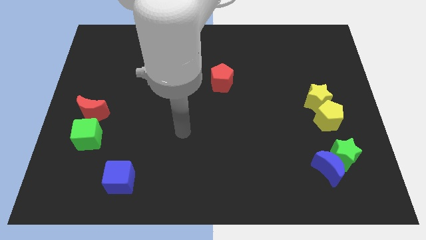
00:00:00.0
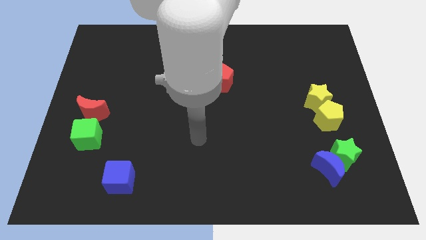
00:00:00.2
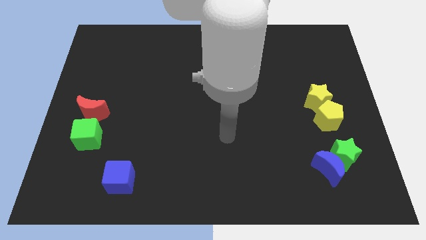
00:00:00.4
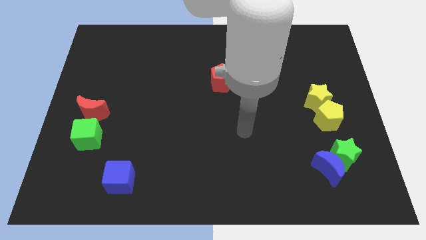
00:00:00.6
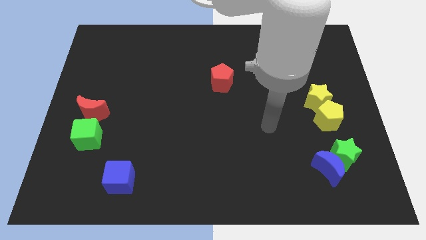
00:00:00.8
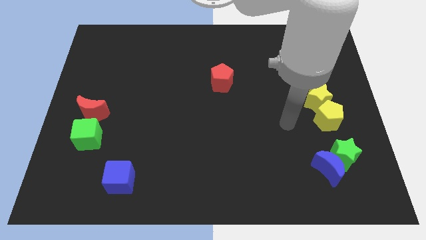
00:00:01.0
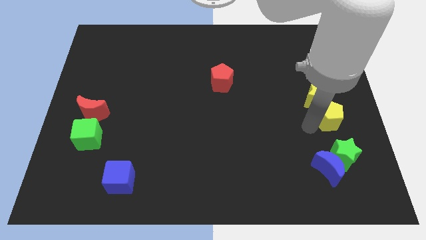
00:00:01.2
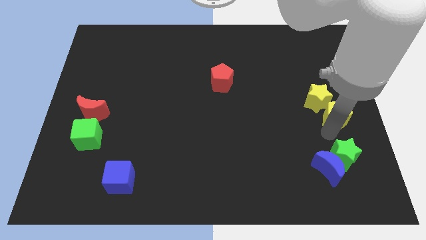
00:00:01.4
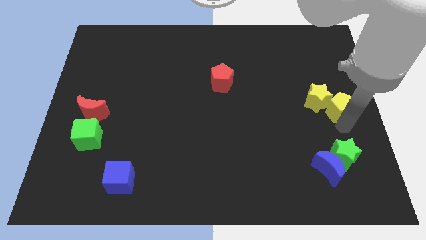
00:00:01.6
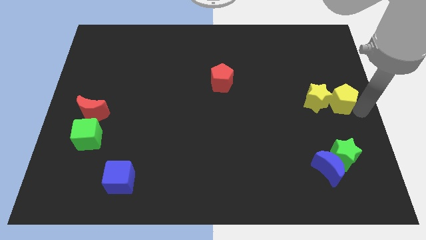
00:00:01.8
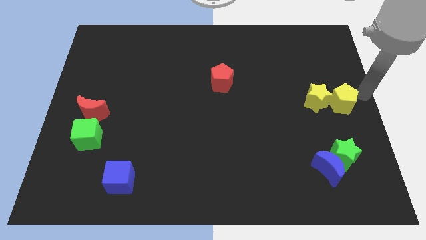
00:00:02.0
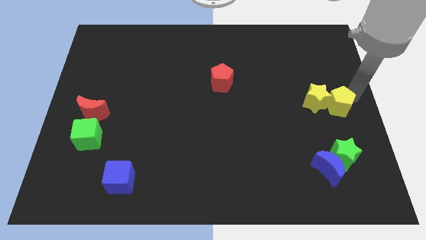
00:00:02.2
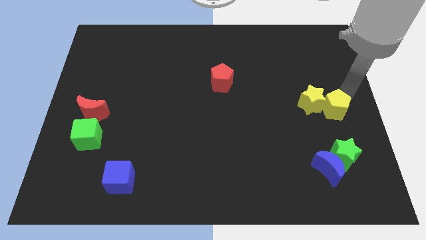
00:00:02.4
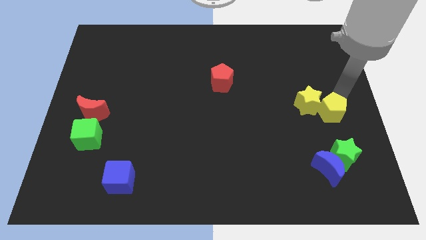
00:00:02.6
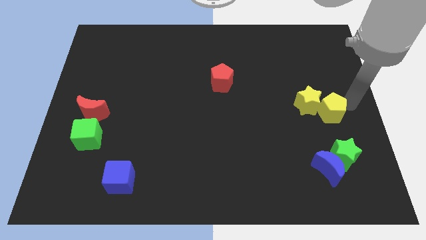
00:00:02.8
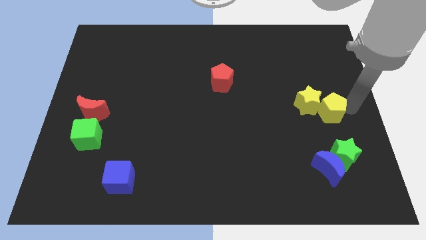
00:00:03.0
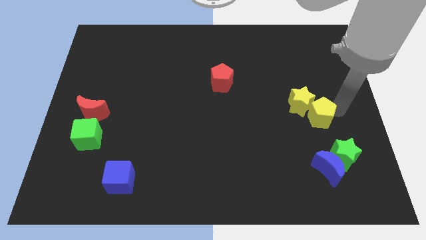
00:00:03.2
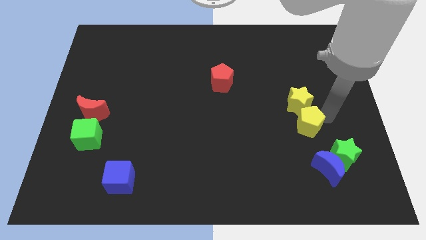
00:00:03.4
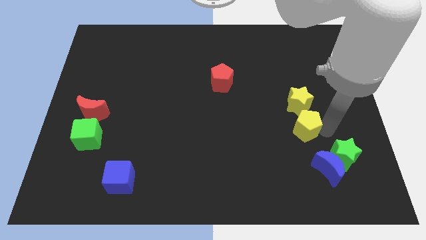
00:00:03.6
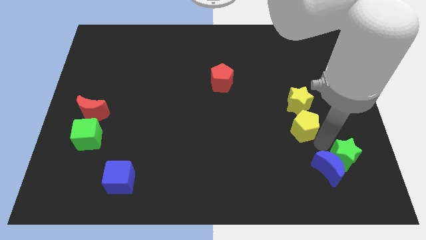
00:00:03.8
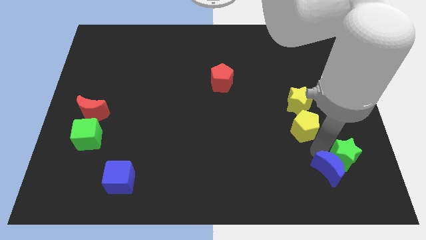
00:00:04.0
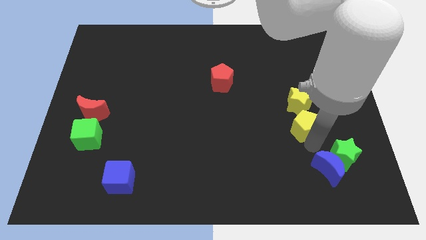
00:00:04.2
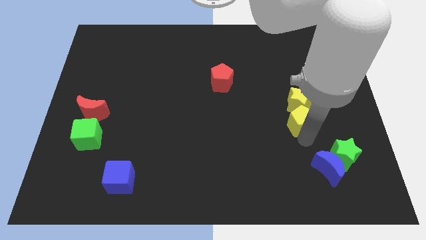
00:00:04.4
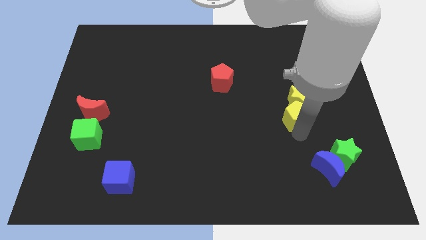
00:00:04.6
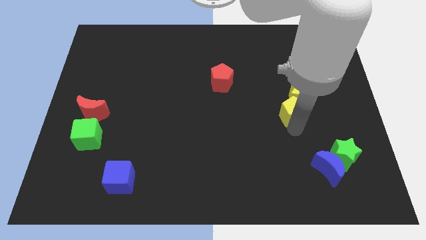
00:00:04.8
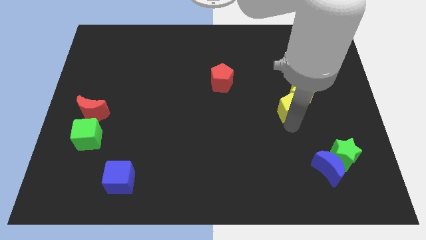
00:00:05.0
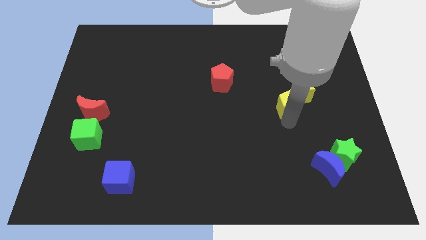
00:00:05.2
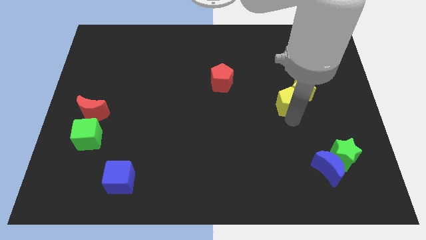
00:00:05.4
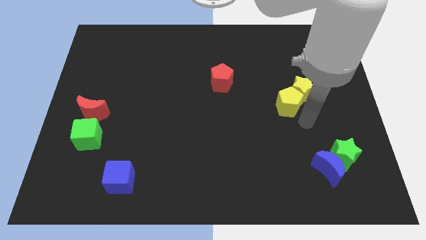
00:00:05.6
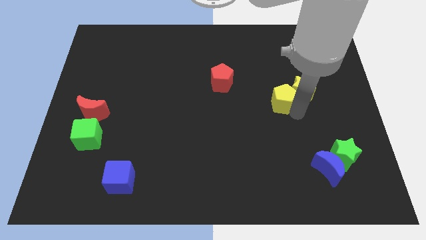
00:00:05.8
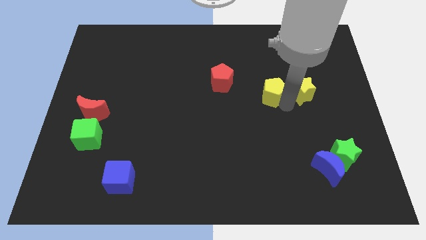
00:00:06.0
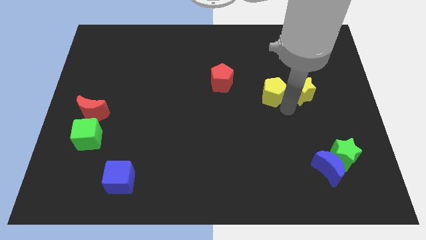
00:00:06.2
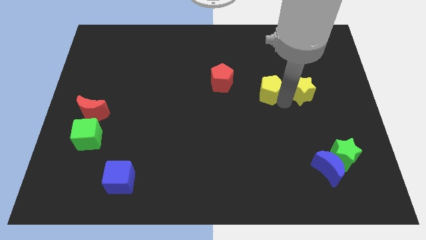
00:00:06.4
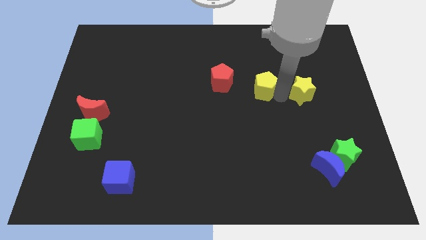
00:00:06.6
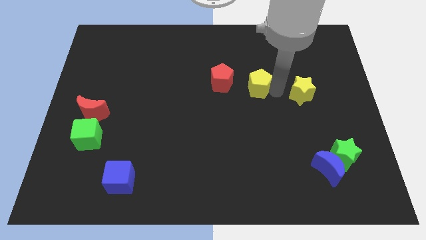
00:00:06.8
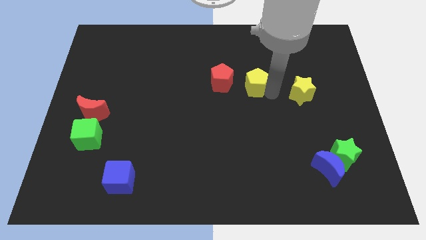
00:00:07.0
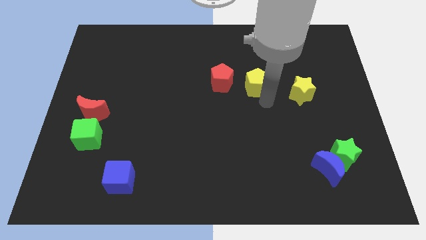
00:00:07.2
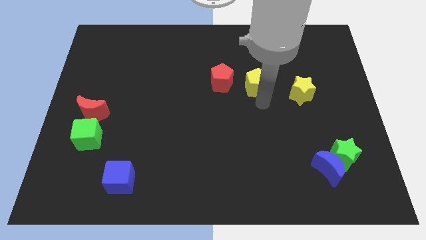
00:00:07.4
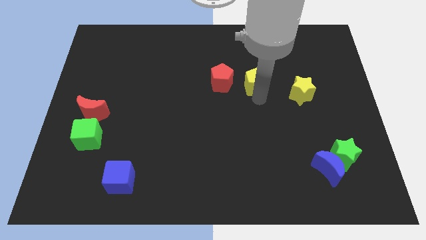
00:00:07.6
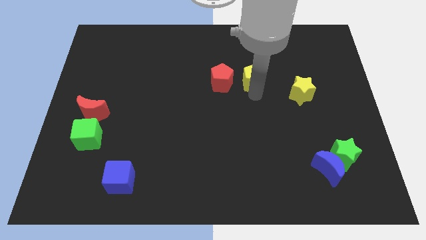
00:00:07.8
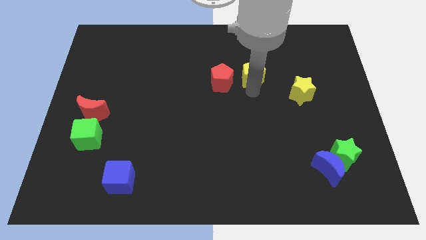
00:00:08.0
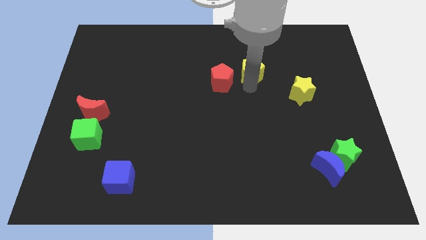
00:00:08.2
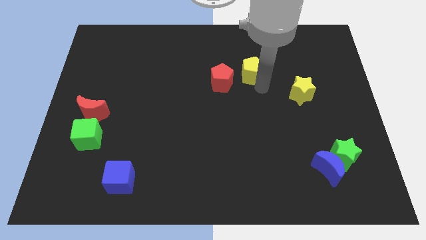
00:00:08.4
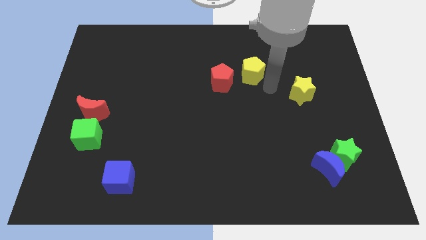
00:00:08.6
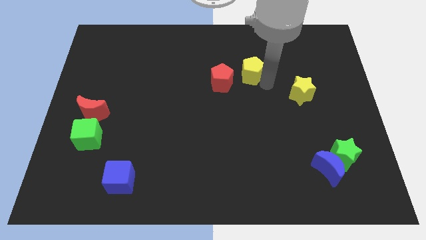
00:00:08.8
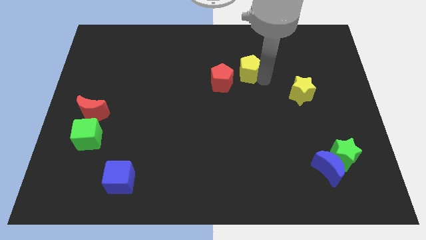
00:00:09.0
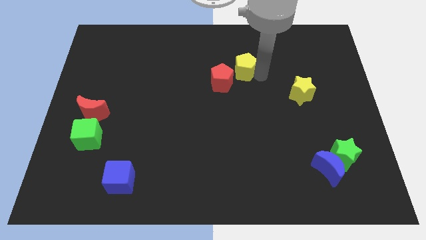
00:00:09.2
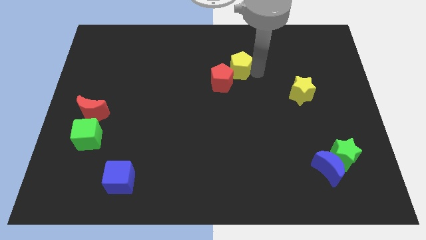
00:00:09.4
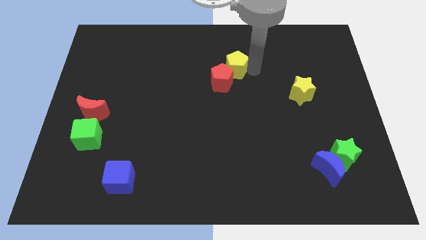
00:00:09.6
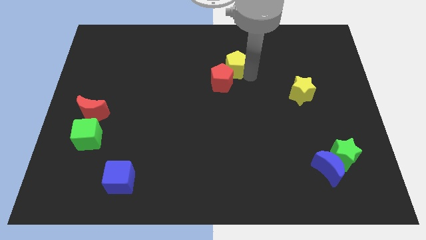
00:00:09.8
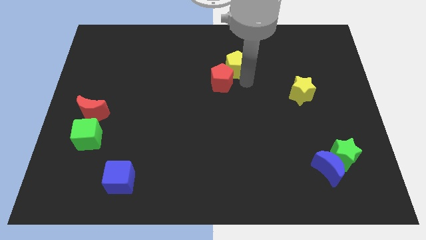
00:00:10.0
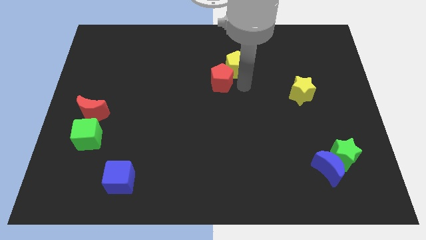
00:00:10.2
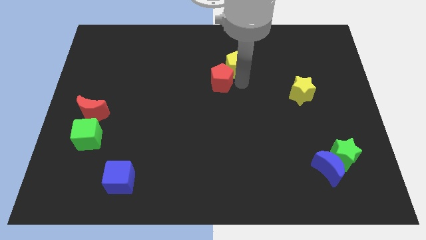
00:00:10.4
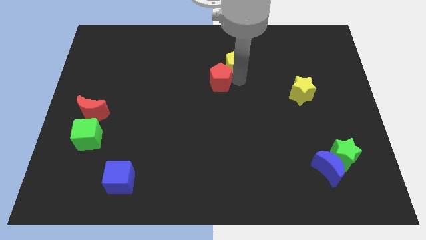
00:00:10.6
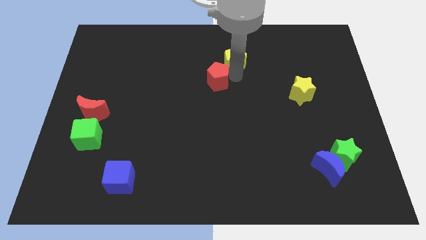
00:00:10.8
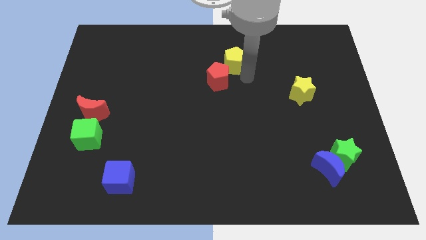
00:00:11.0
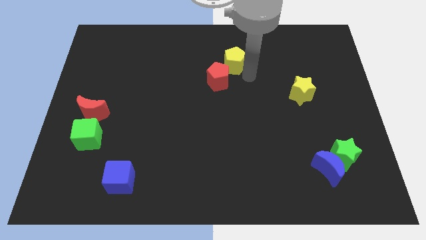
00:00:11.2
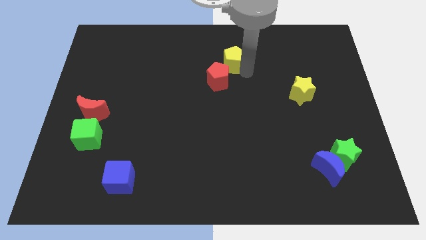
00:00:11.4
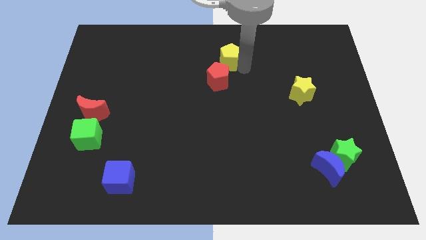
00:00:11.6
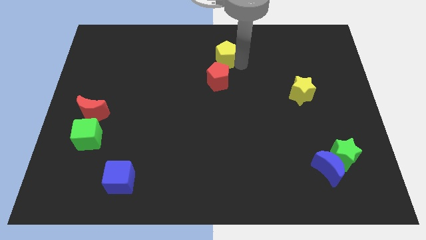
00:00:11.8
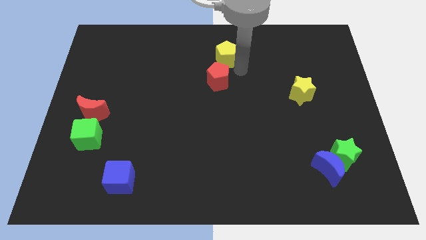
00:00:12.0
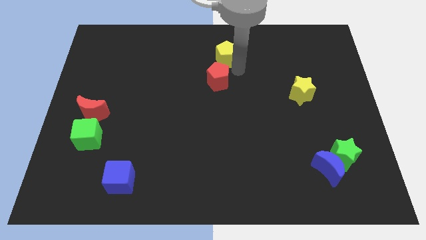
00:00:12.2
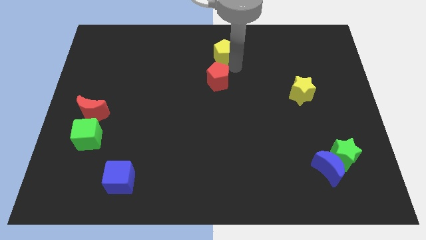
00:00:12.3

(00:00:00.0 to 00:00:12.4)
slide the yellow pentagon to the top

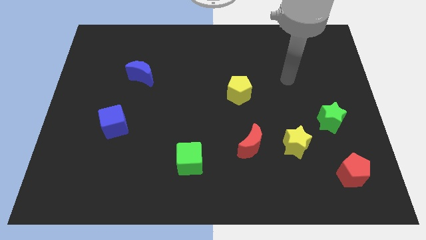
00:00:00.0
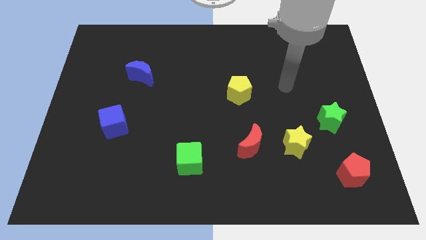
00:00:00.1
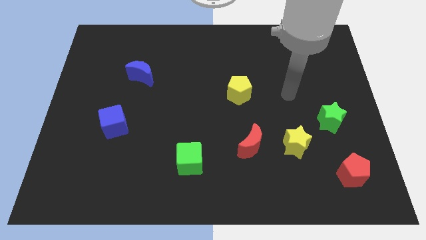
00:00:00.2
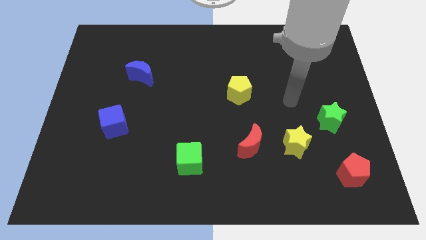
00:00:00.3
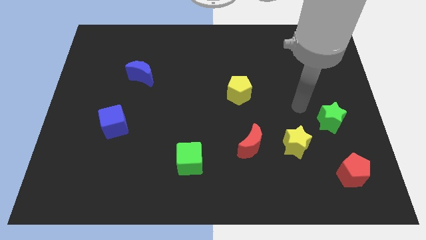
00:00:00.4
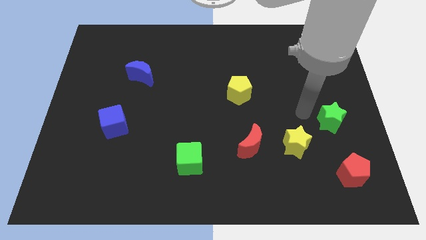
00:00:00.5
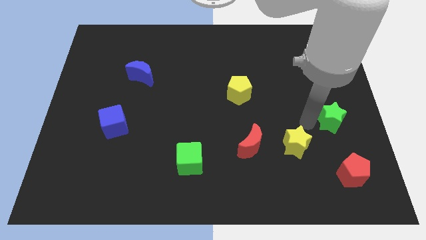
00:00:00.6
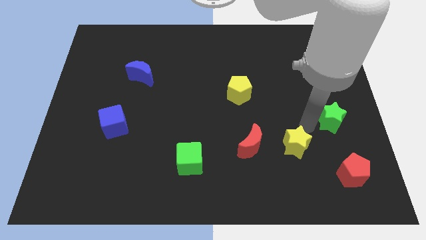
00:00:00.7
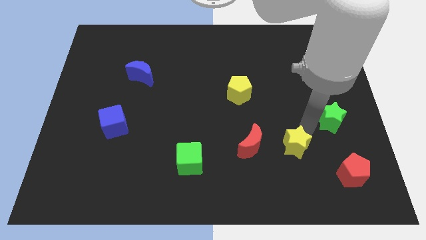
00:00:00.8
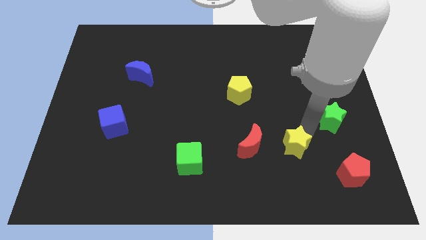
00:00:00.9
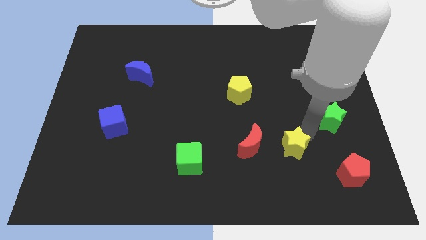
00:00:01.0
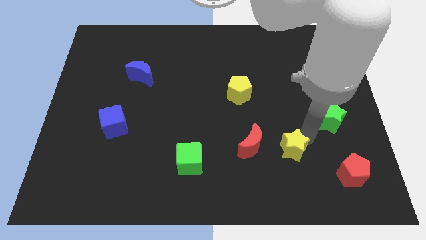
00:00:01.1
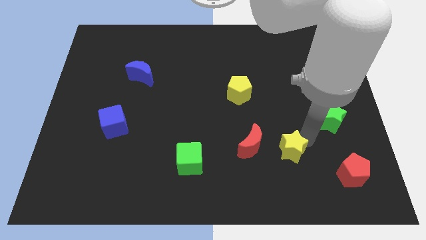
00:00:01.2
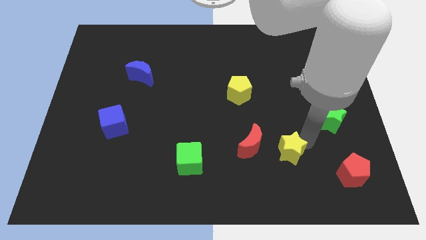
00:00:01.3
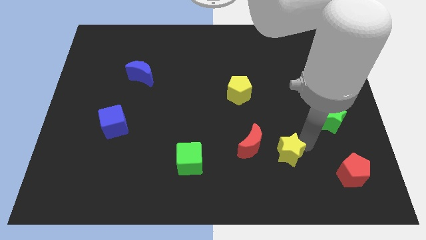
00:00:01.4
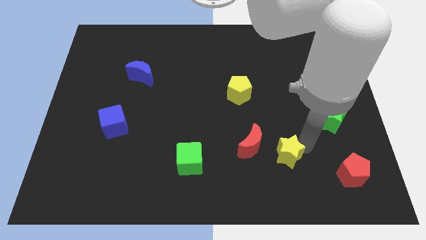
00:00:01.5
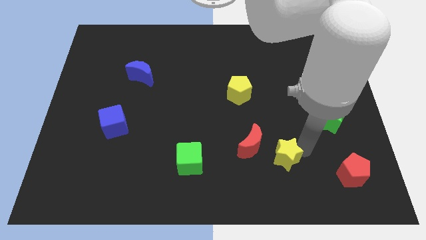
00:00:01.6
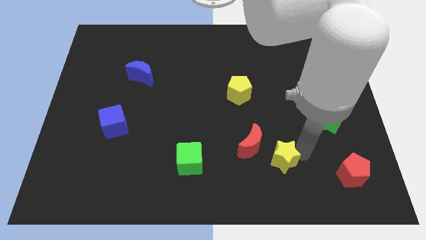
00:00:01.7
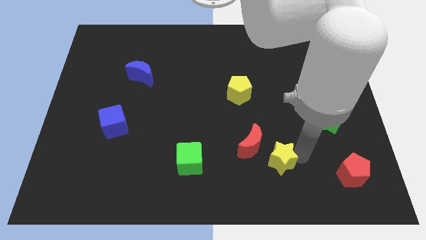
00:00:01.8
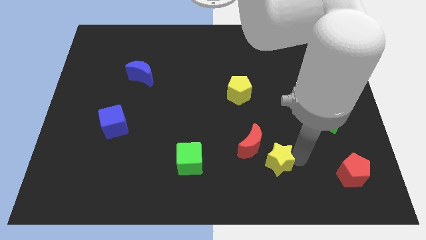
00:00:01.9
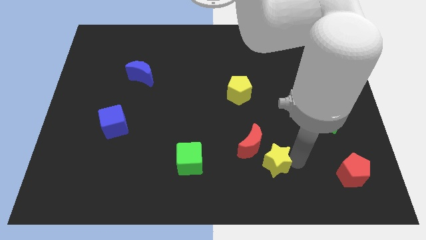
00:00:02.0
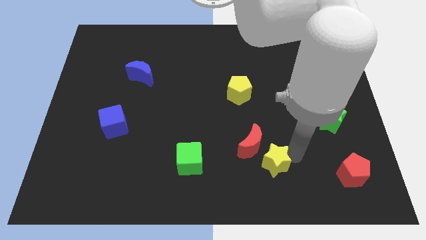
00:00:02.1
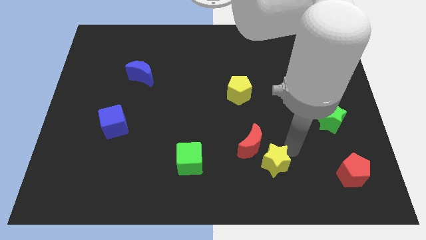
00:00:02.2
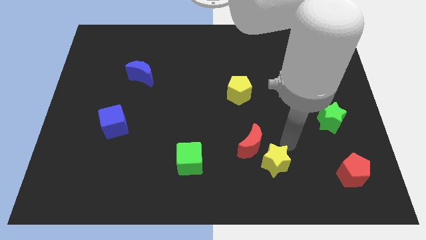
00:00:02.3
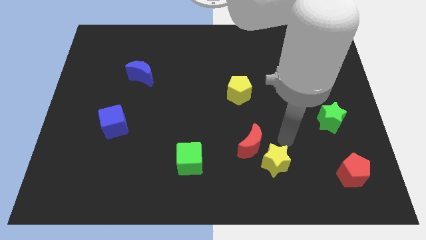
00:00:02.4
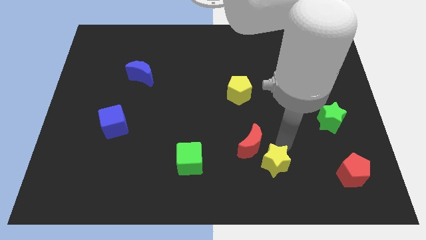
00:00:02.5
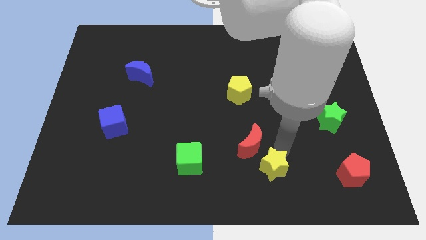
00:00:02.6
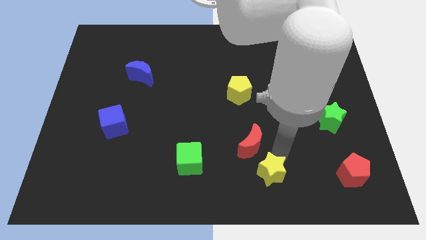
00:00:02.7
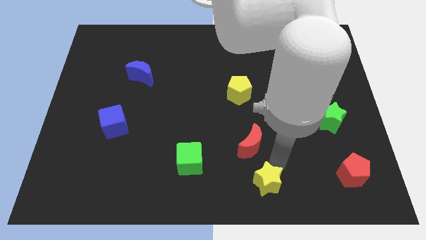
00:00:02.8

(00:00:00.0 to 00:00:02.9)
push the yellow star to the bottom side
